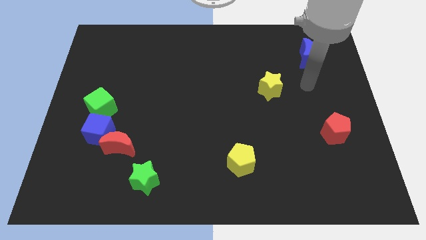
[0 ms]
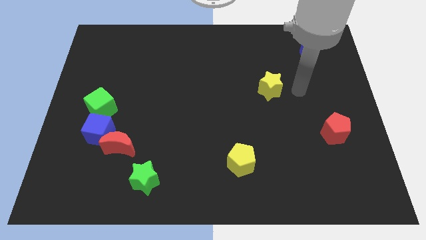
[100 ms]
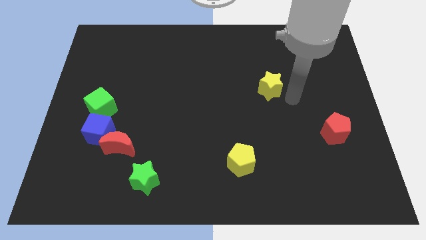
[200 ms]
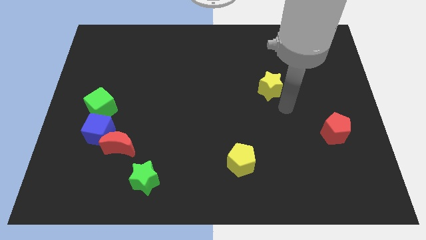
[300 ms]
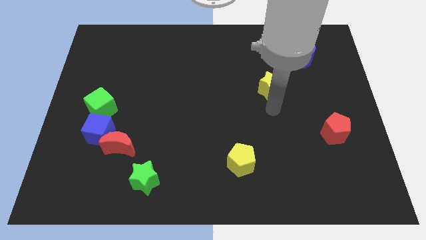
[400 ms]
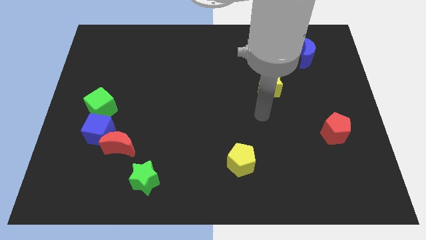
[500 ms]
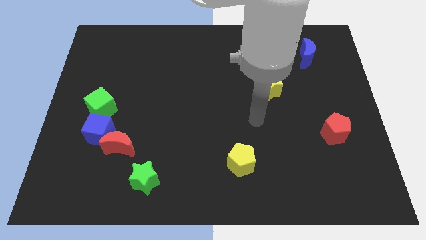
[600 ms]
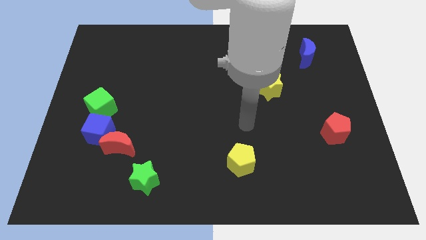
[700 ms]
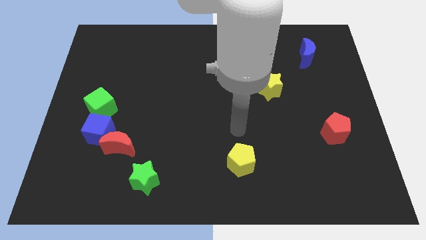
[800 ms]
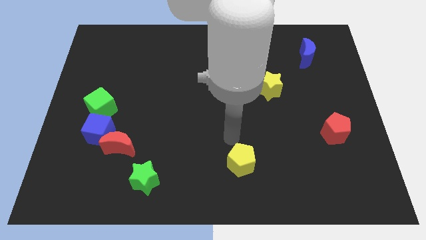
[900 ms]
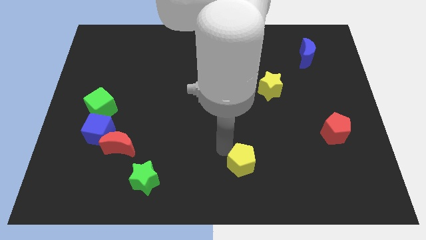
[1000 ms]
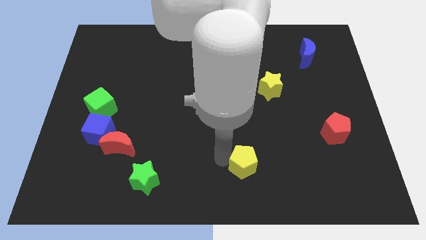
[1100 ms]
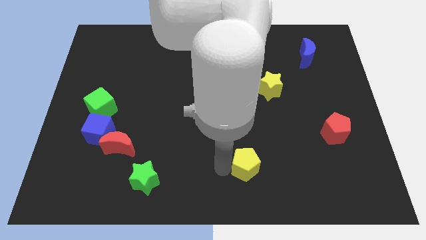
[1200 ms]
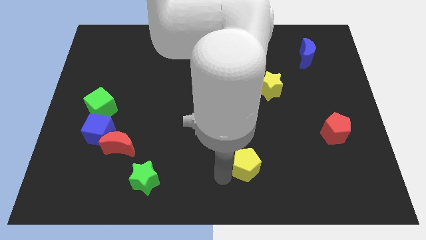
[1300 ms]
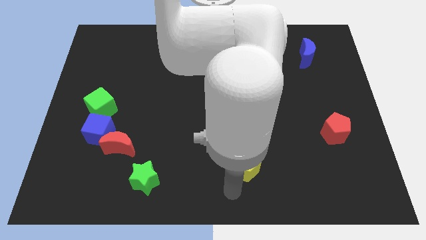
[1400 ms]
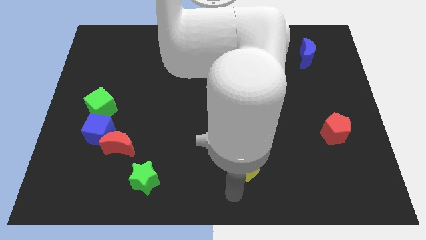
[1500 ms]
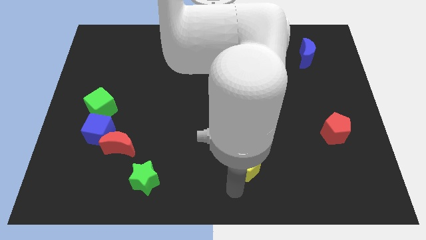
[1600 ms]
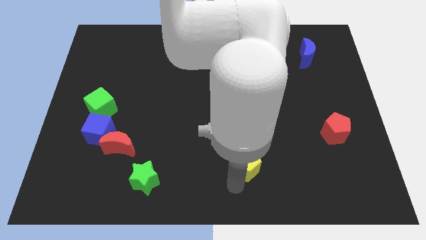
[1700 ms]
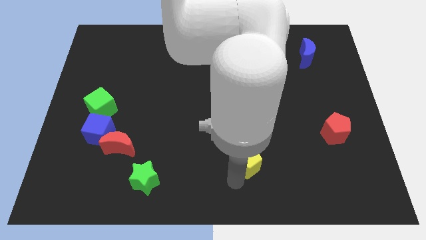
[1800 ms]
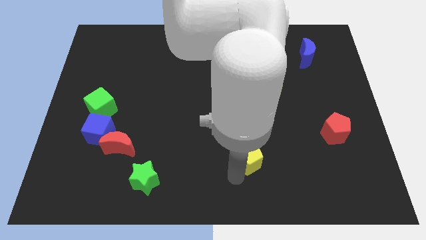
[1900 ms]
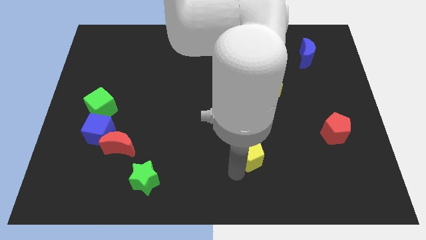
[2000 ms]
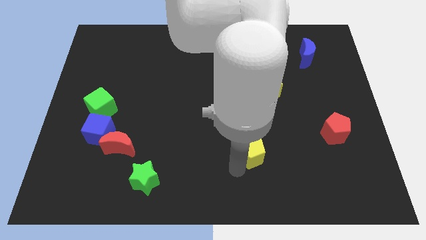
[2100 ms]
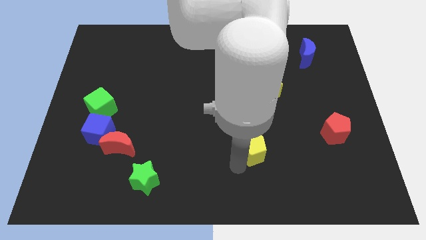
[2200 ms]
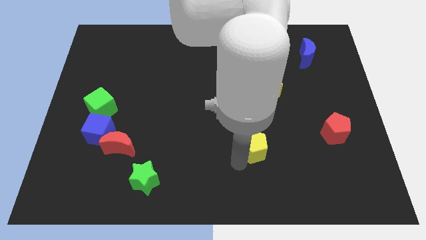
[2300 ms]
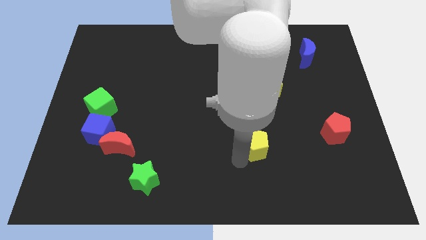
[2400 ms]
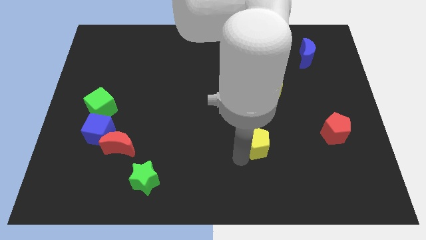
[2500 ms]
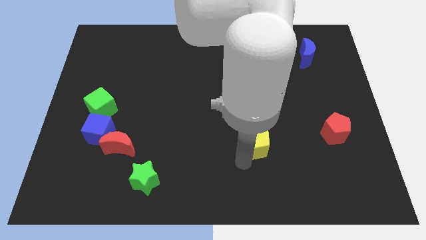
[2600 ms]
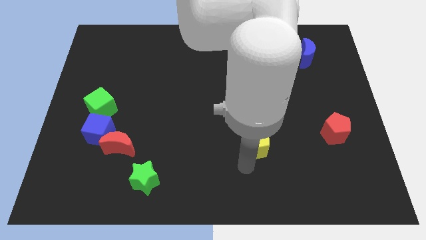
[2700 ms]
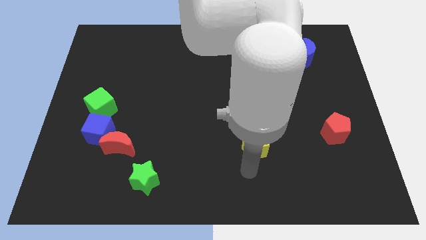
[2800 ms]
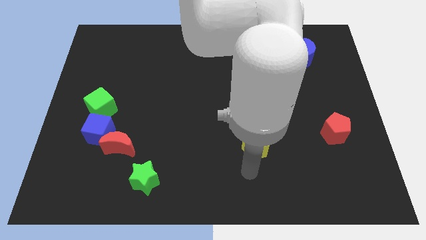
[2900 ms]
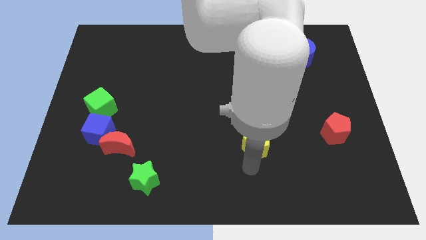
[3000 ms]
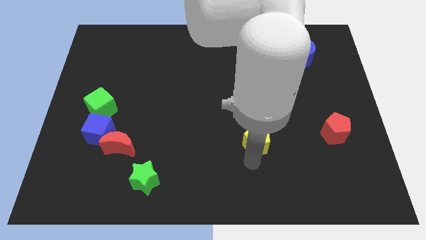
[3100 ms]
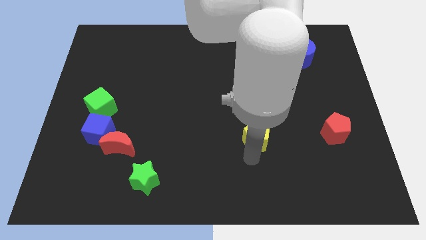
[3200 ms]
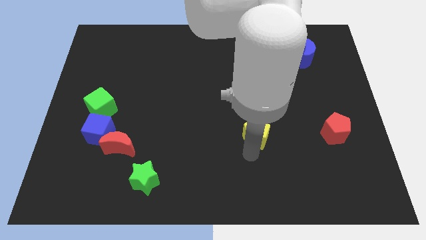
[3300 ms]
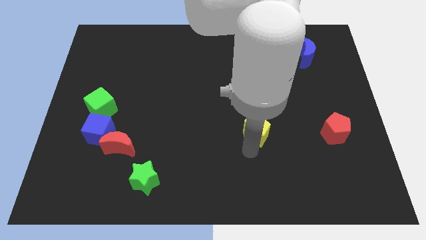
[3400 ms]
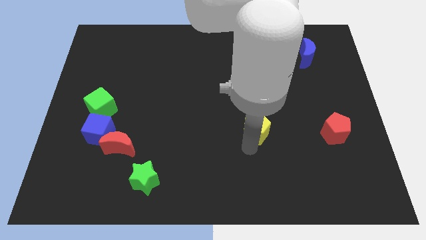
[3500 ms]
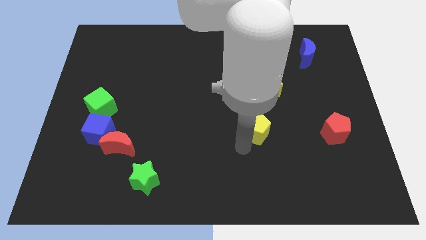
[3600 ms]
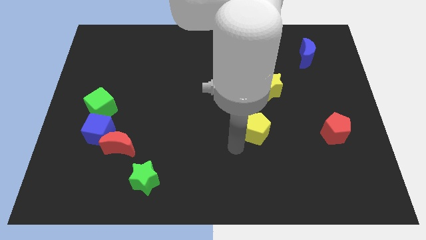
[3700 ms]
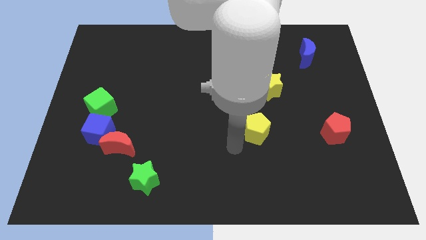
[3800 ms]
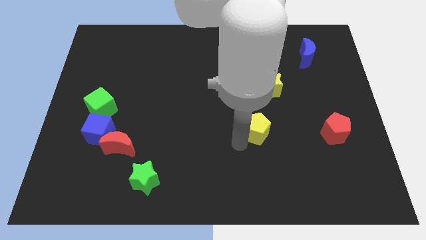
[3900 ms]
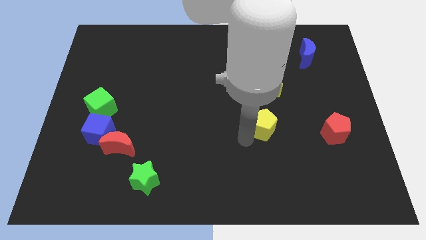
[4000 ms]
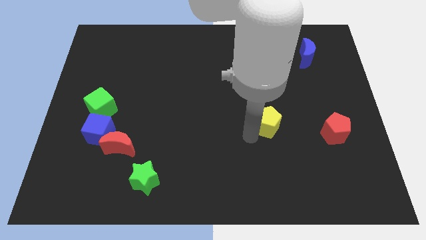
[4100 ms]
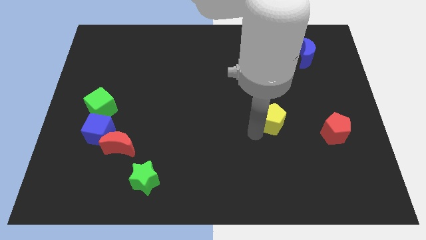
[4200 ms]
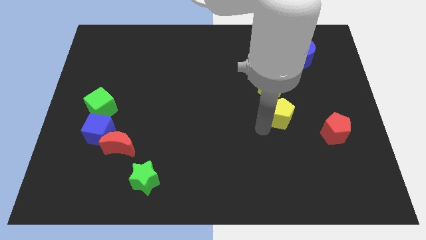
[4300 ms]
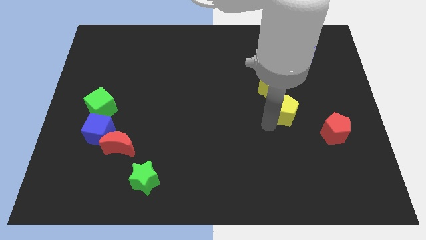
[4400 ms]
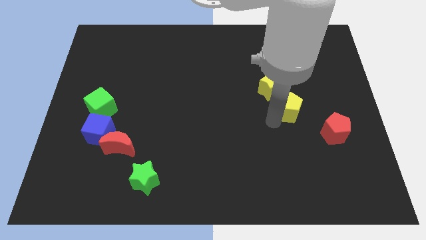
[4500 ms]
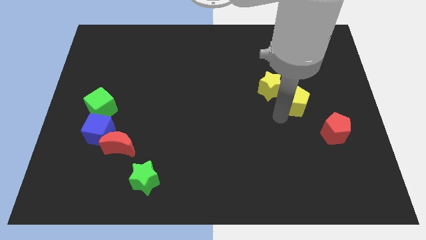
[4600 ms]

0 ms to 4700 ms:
push the yellow pentagon upwards and right diagonally

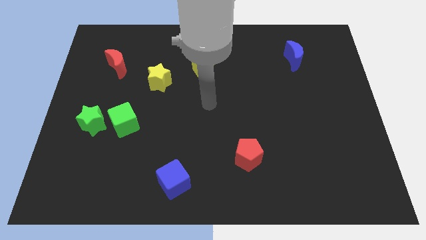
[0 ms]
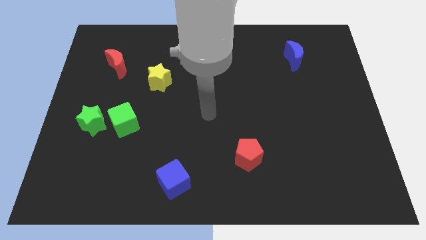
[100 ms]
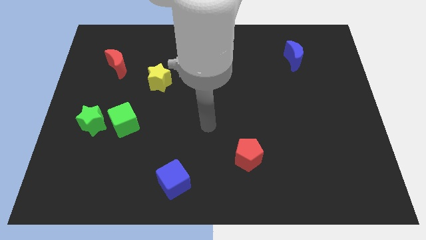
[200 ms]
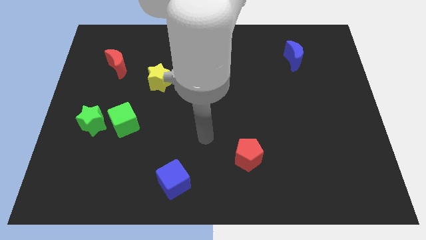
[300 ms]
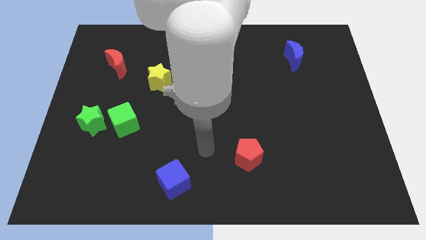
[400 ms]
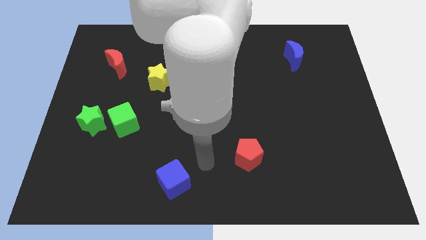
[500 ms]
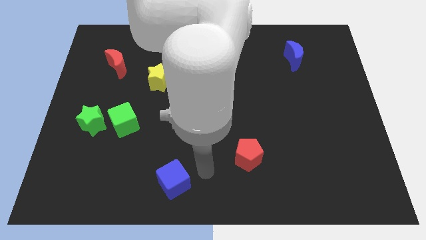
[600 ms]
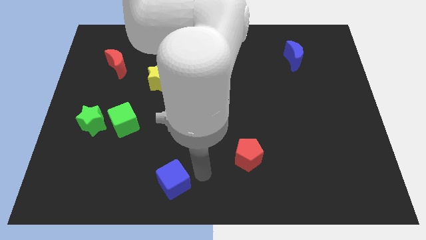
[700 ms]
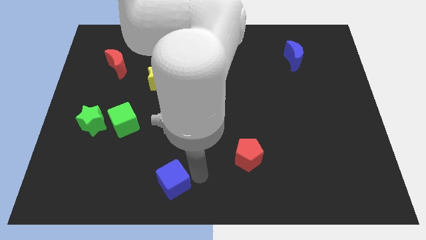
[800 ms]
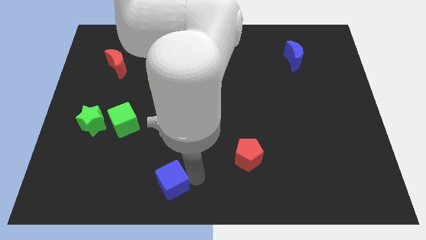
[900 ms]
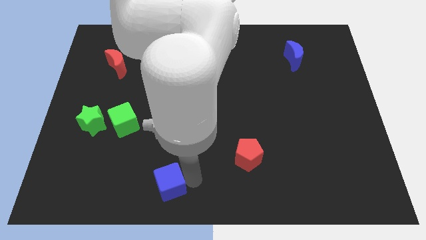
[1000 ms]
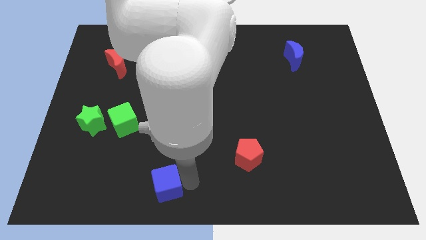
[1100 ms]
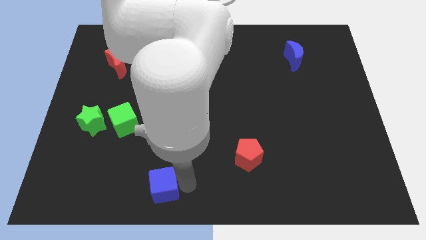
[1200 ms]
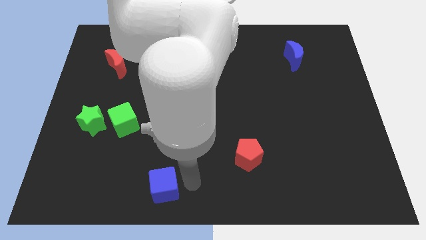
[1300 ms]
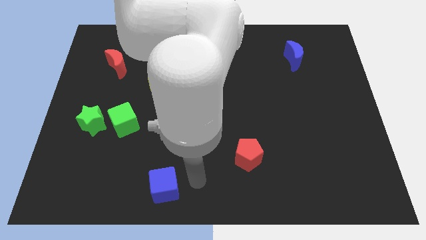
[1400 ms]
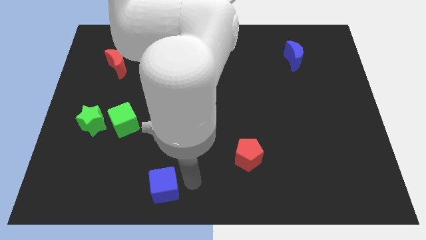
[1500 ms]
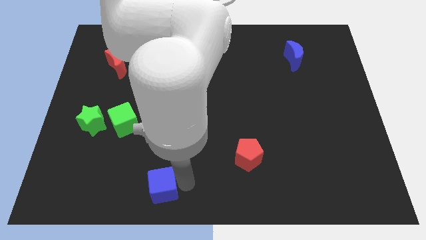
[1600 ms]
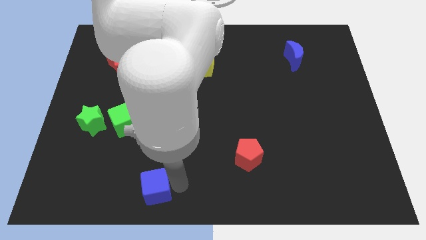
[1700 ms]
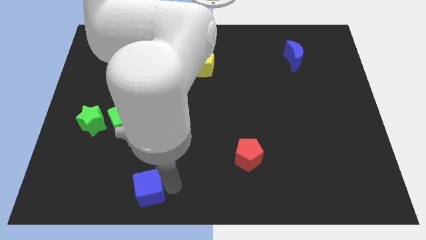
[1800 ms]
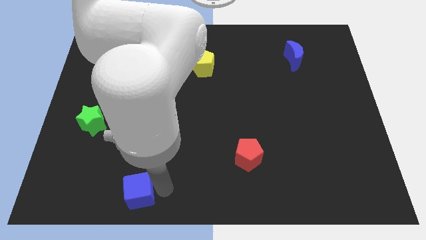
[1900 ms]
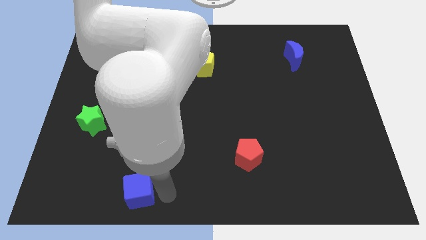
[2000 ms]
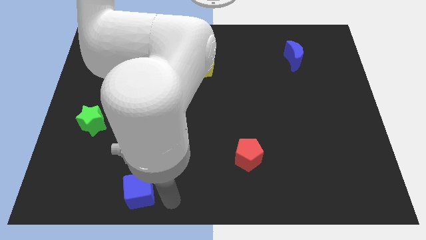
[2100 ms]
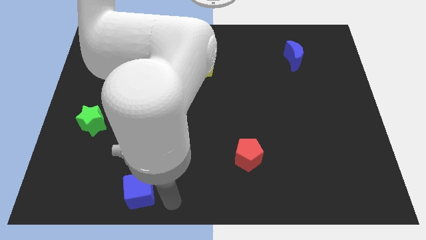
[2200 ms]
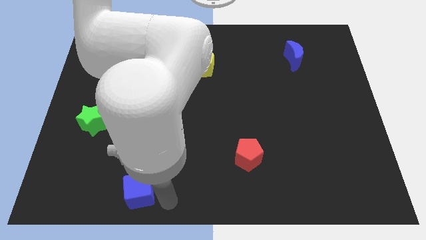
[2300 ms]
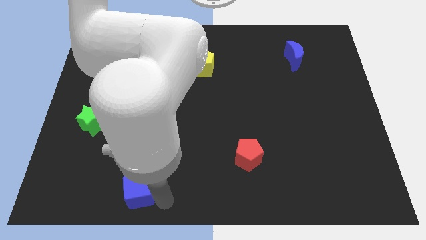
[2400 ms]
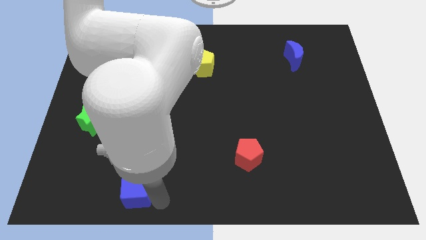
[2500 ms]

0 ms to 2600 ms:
push the blue cube to the left slightly

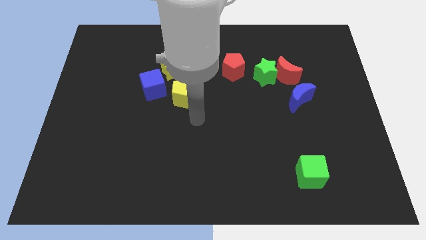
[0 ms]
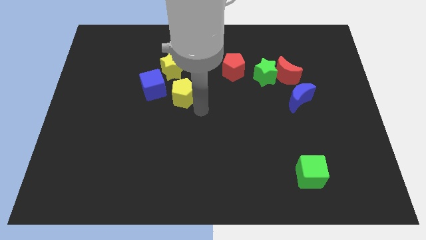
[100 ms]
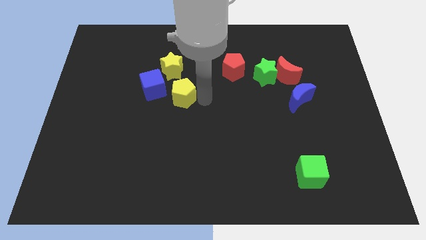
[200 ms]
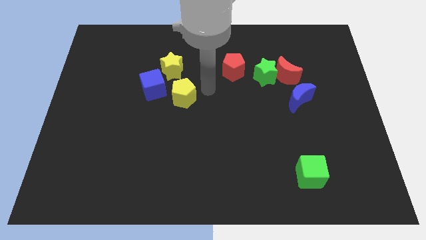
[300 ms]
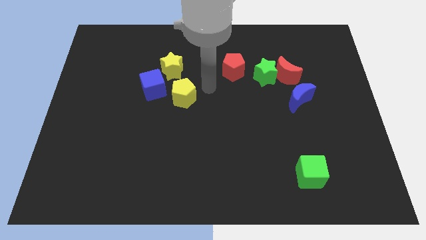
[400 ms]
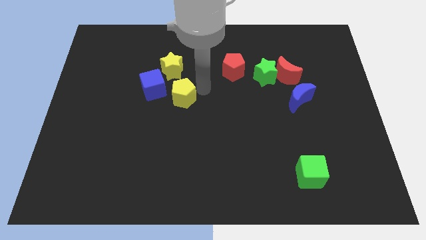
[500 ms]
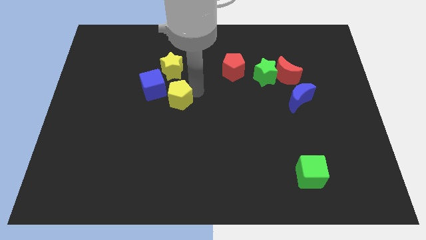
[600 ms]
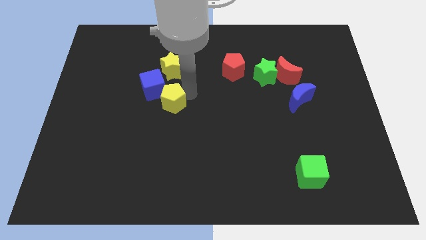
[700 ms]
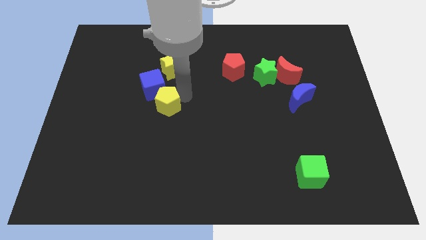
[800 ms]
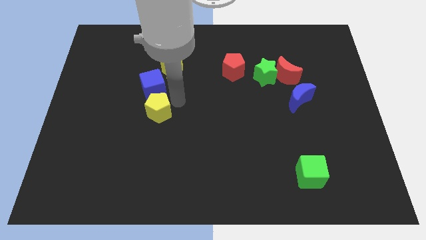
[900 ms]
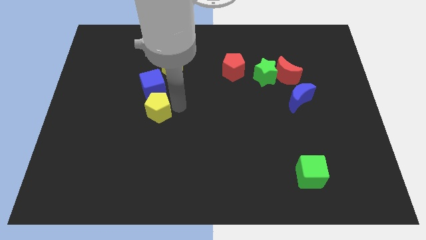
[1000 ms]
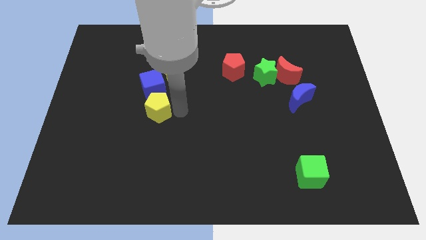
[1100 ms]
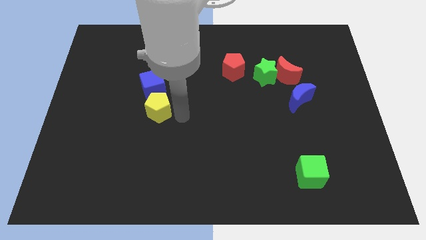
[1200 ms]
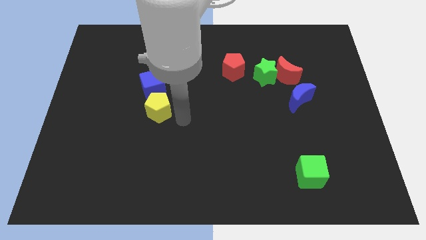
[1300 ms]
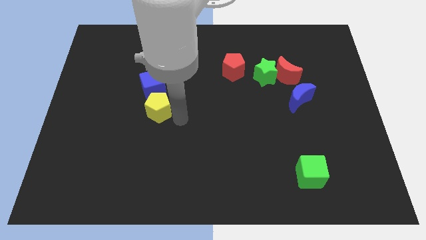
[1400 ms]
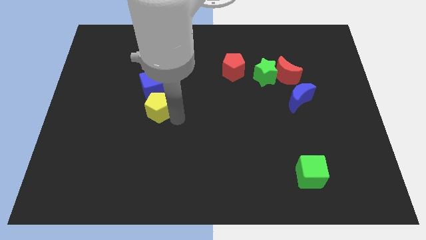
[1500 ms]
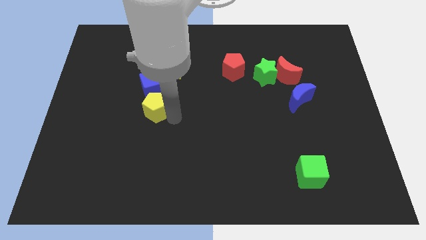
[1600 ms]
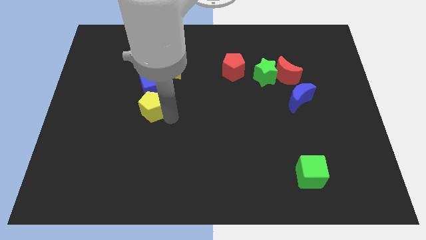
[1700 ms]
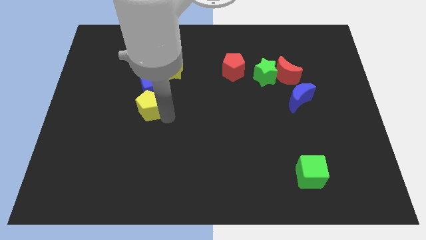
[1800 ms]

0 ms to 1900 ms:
slide the yellow pentagon left a little bit
